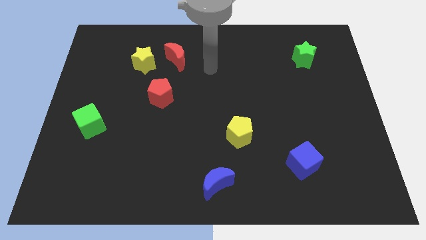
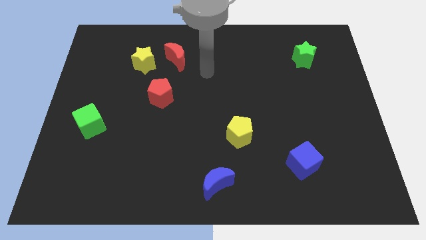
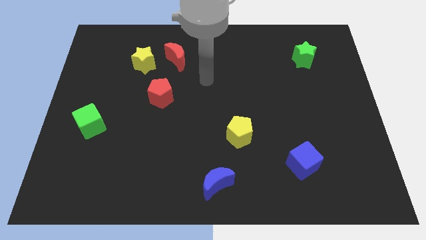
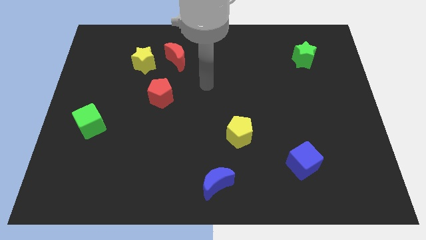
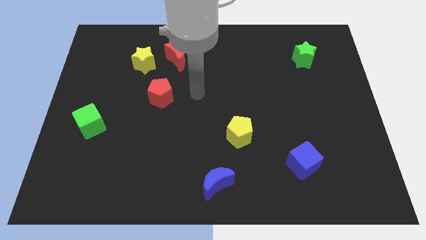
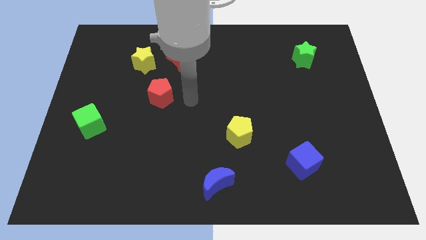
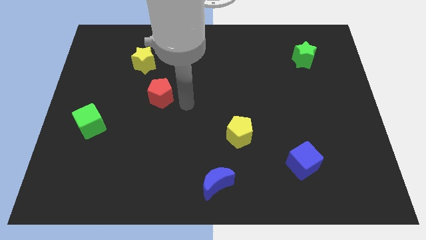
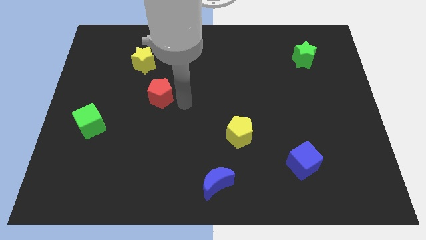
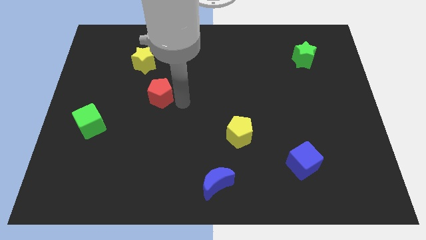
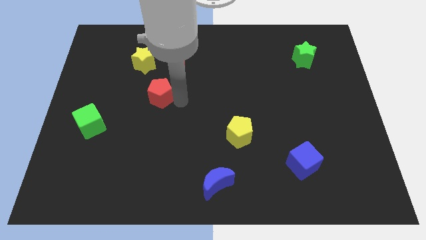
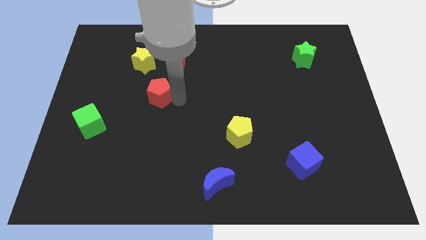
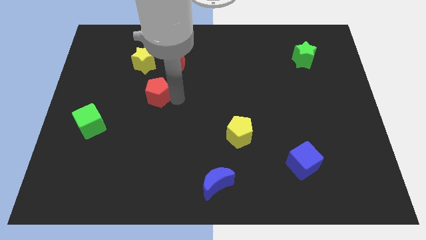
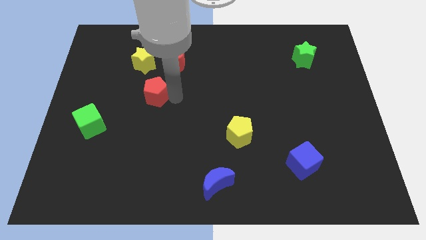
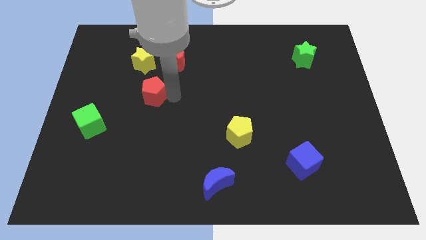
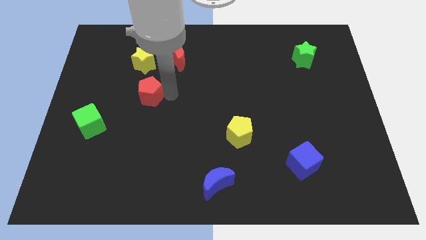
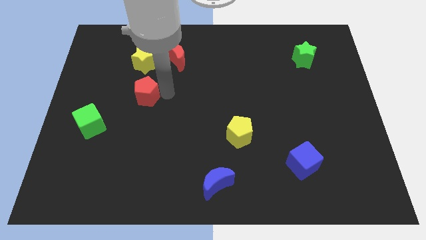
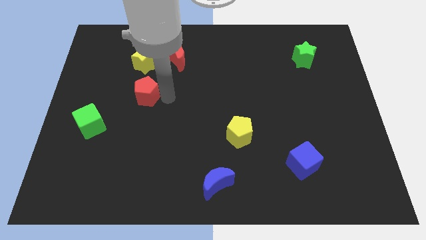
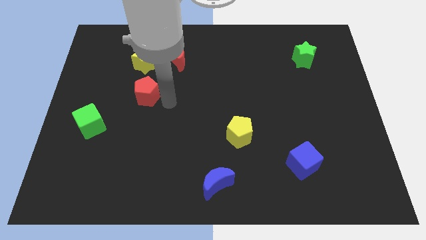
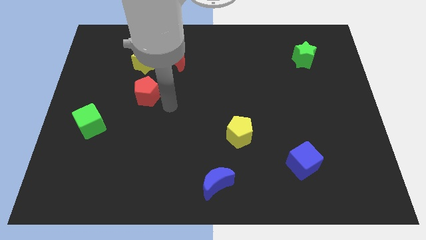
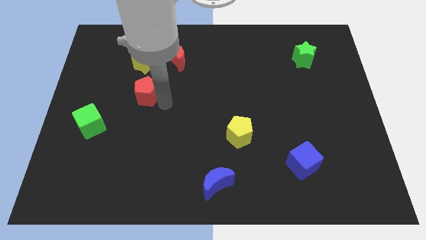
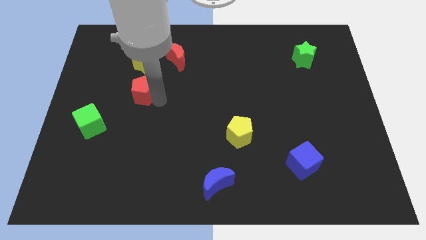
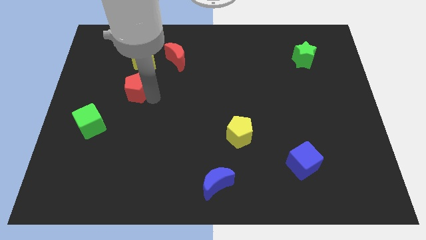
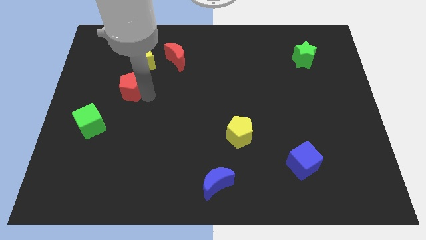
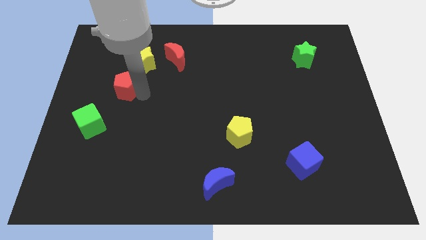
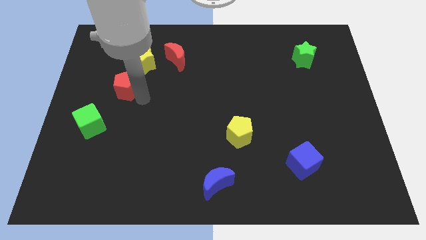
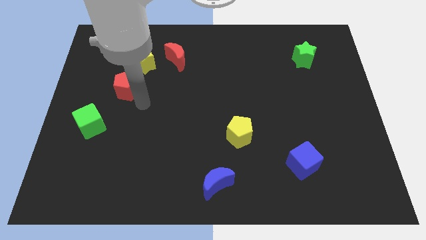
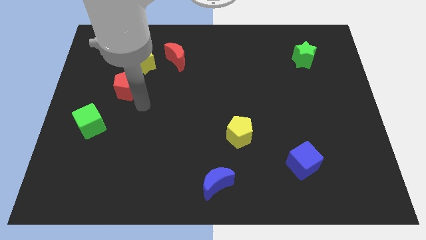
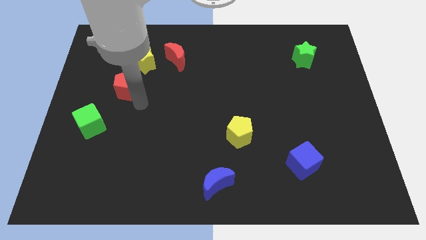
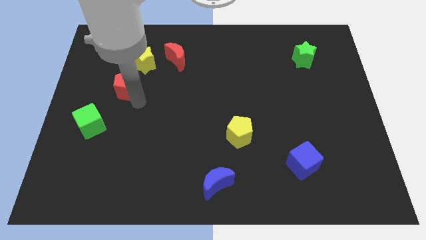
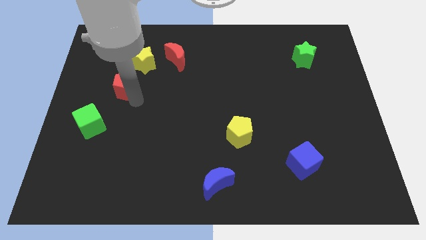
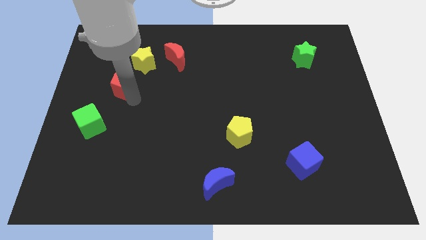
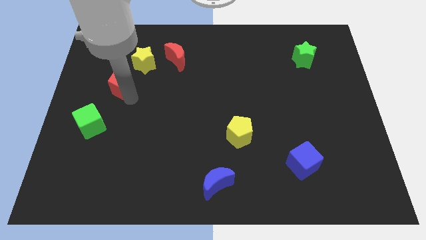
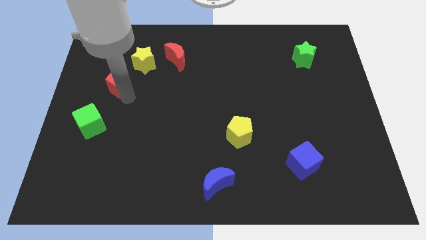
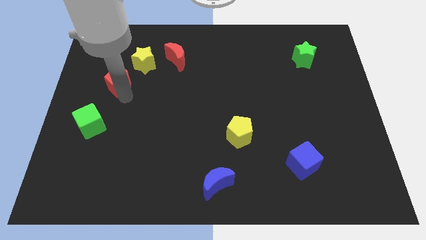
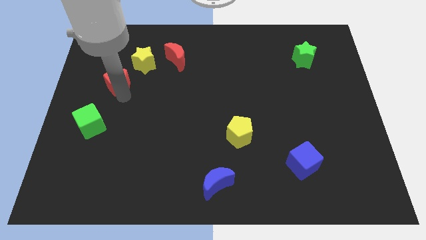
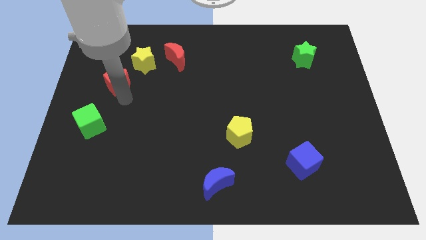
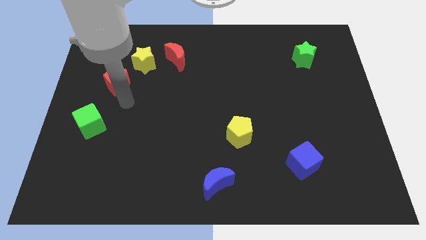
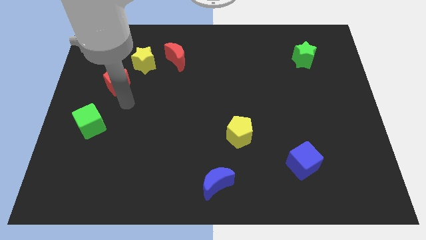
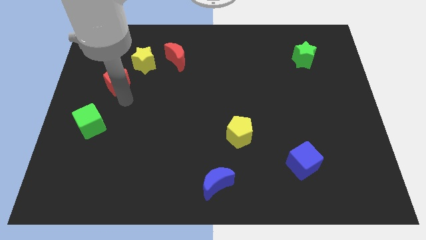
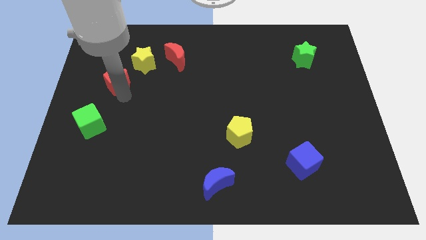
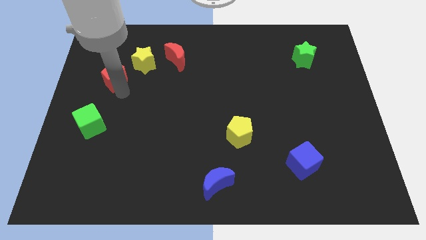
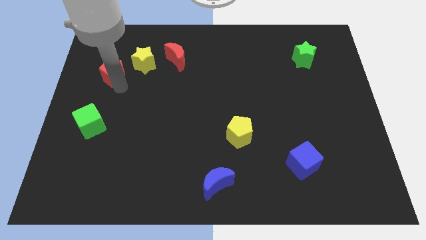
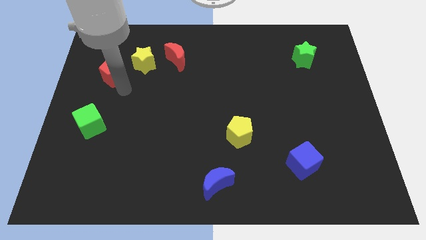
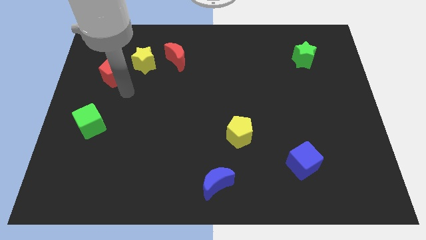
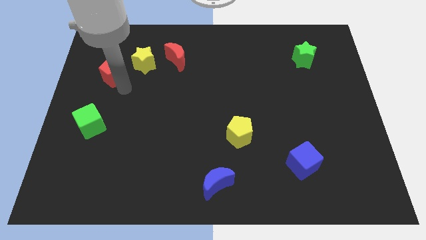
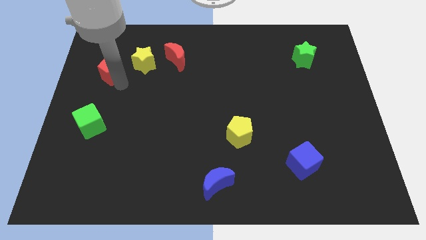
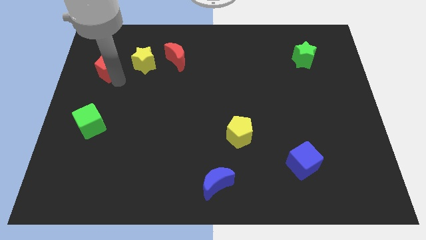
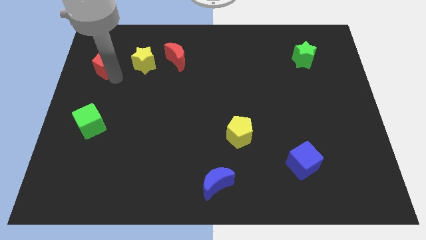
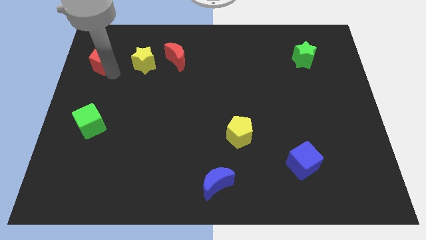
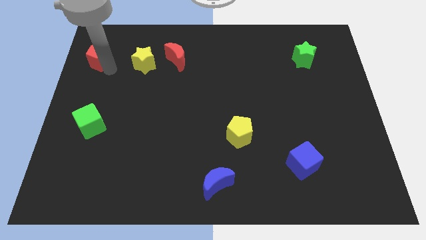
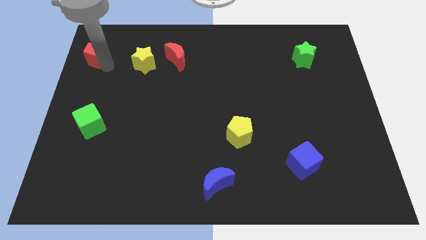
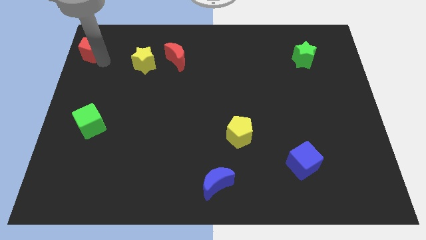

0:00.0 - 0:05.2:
slide the red pentagon to the top left
